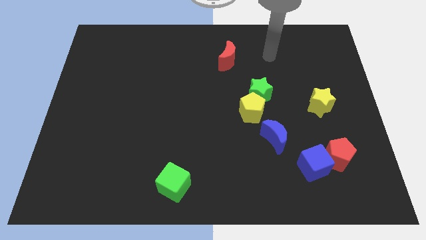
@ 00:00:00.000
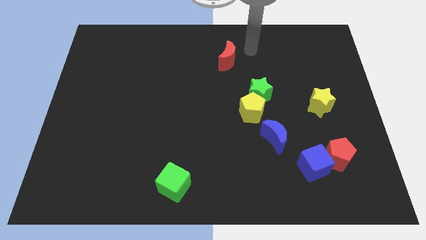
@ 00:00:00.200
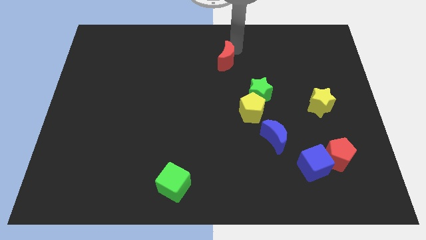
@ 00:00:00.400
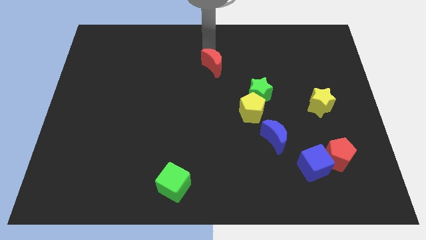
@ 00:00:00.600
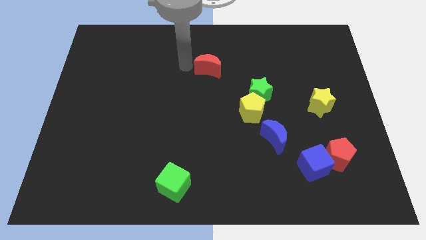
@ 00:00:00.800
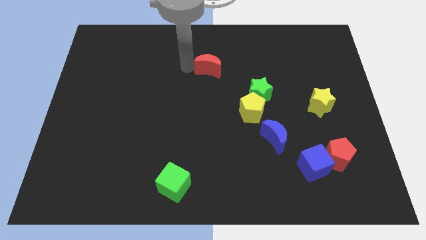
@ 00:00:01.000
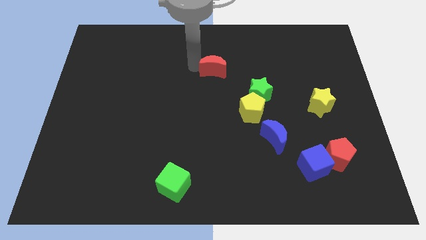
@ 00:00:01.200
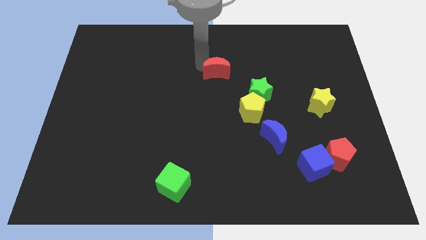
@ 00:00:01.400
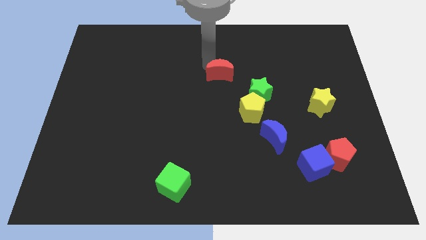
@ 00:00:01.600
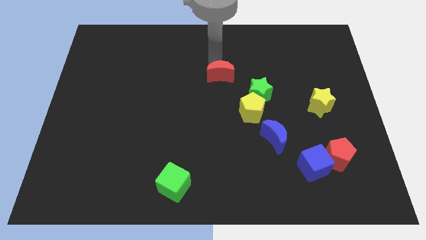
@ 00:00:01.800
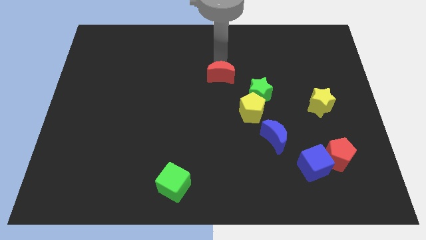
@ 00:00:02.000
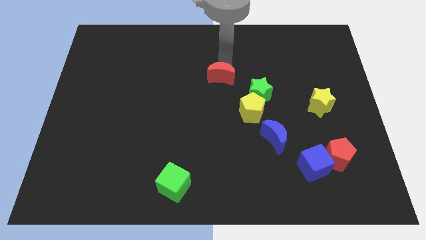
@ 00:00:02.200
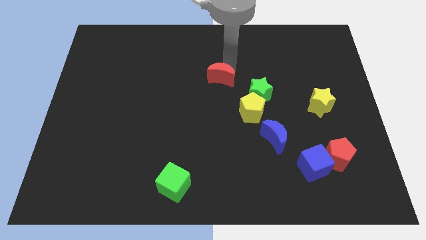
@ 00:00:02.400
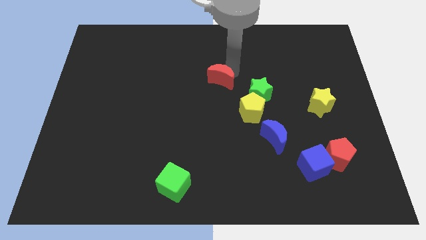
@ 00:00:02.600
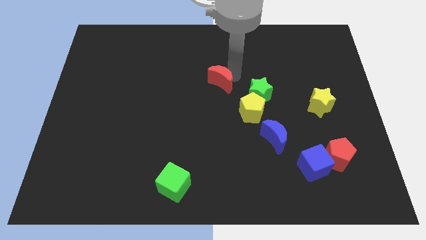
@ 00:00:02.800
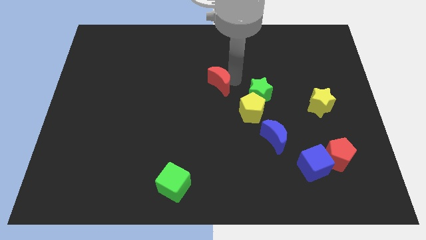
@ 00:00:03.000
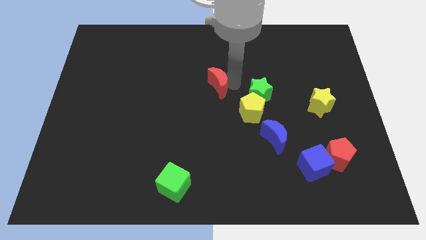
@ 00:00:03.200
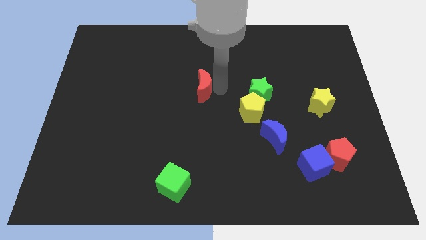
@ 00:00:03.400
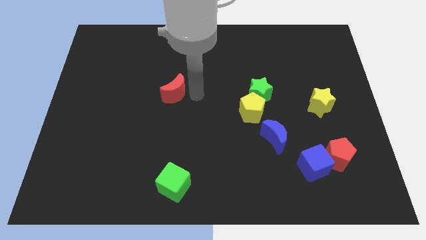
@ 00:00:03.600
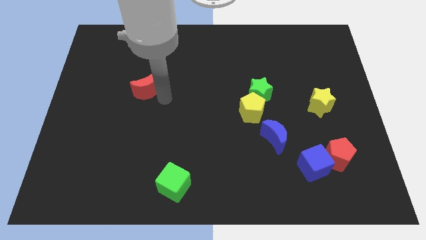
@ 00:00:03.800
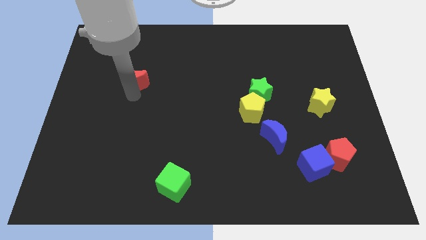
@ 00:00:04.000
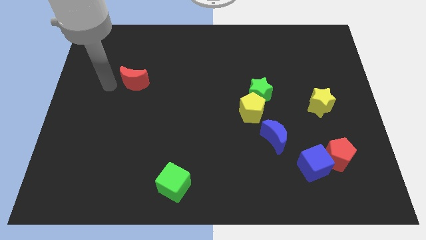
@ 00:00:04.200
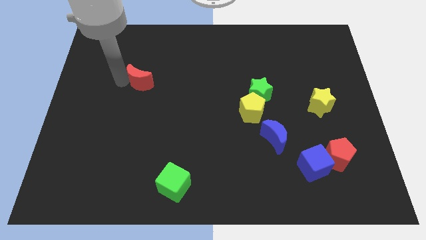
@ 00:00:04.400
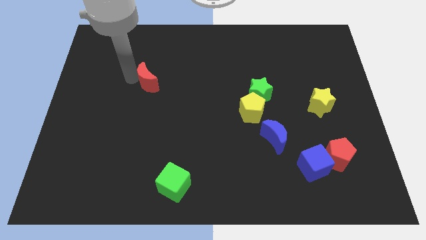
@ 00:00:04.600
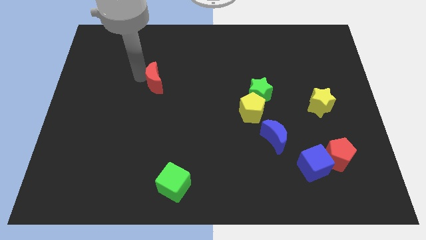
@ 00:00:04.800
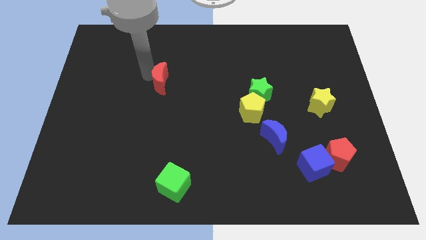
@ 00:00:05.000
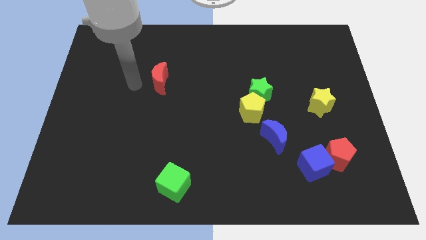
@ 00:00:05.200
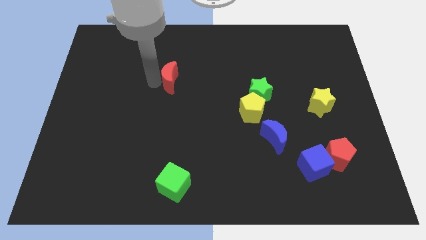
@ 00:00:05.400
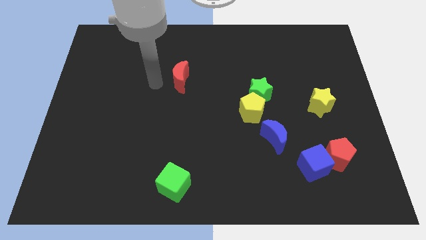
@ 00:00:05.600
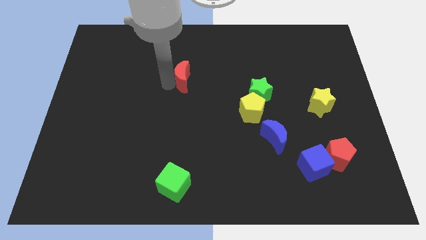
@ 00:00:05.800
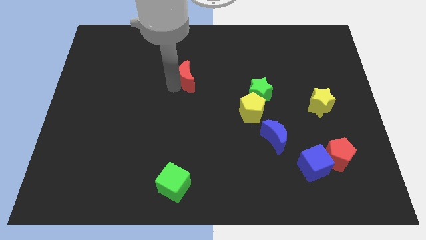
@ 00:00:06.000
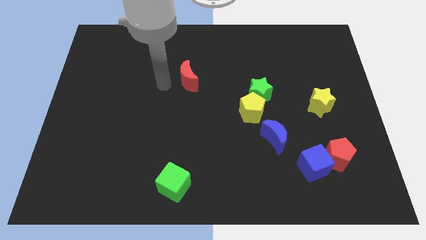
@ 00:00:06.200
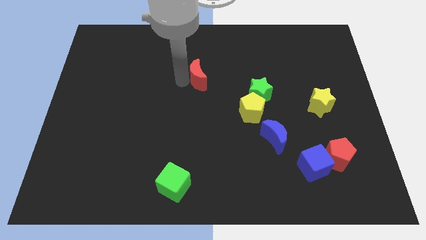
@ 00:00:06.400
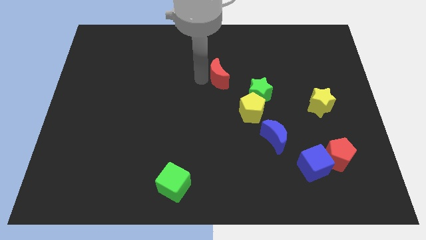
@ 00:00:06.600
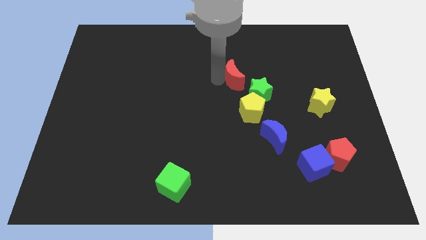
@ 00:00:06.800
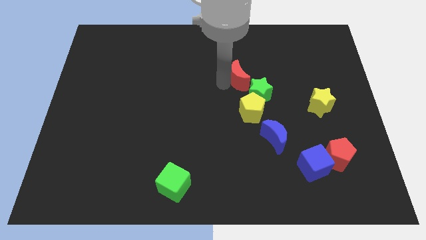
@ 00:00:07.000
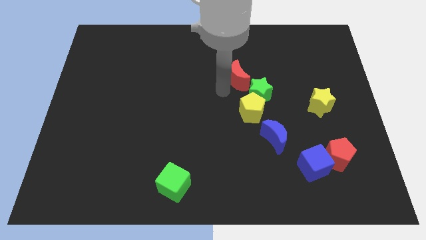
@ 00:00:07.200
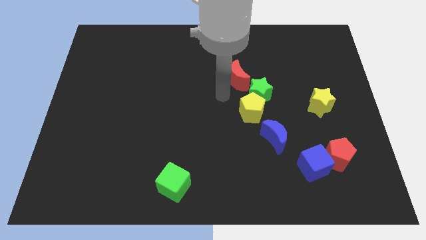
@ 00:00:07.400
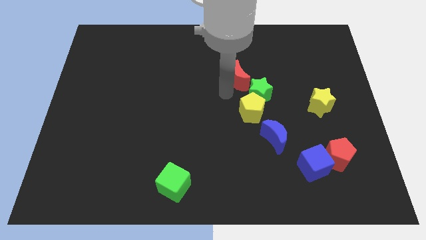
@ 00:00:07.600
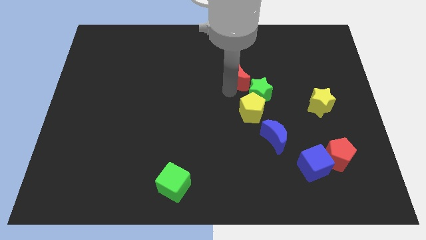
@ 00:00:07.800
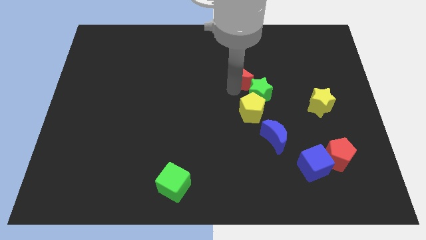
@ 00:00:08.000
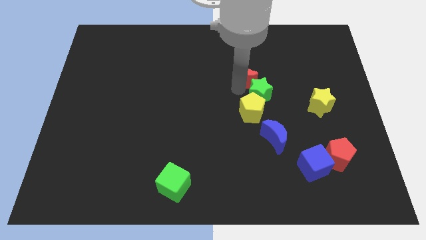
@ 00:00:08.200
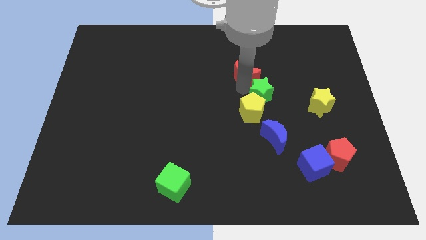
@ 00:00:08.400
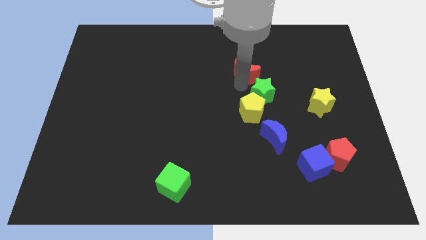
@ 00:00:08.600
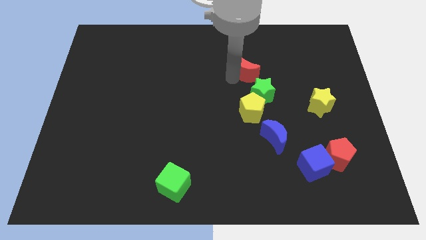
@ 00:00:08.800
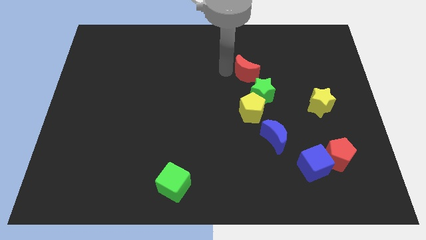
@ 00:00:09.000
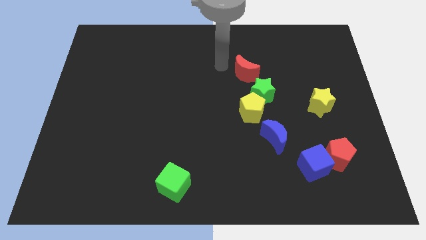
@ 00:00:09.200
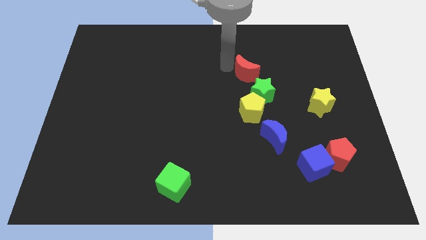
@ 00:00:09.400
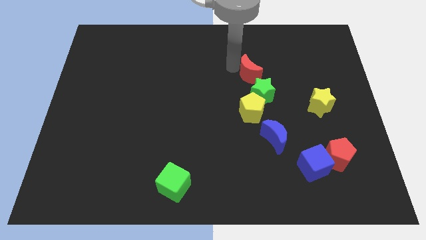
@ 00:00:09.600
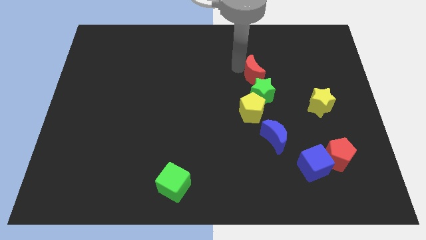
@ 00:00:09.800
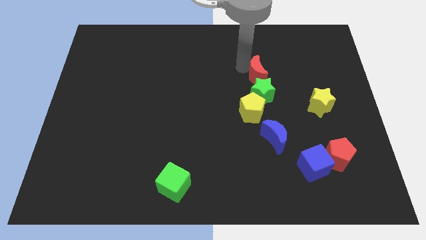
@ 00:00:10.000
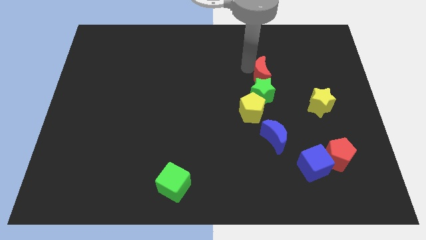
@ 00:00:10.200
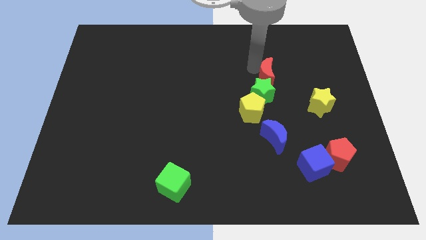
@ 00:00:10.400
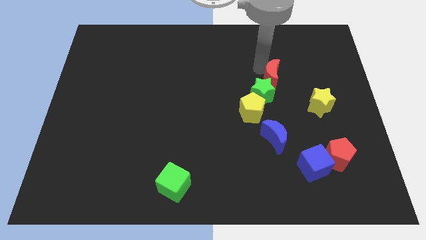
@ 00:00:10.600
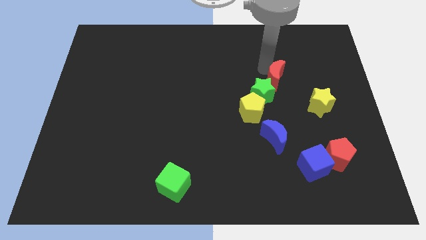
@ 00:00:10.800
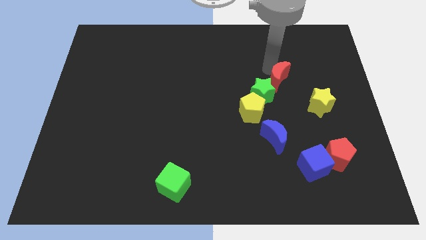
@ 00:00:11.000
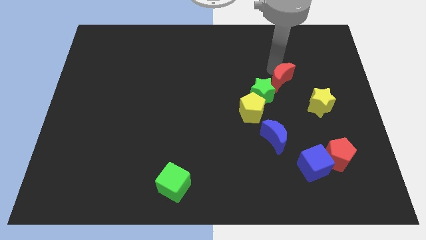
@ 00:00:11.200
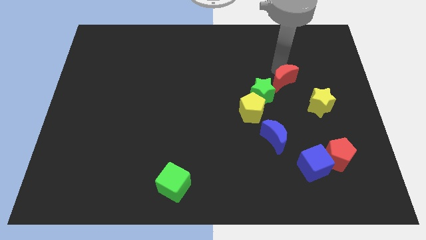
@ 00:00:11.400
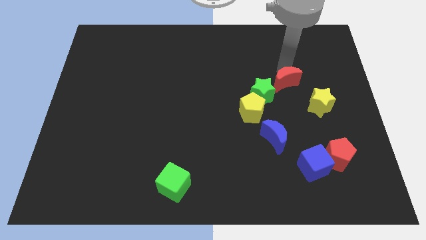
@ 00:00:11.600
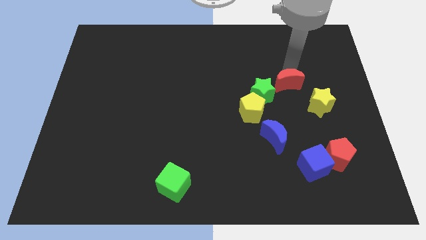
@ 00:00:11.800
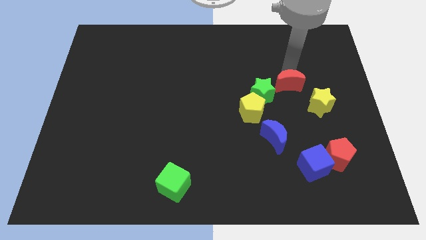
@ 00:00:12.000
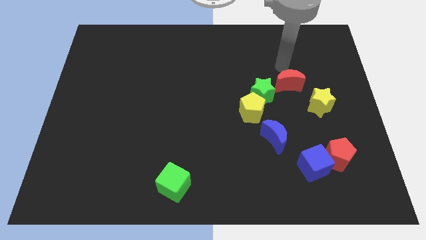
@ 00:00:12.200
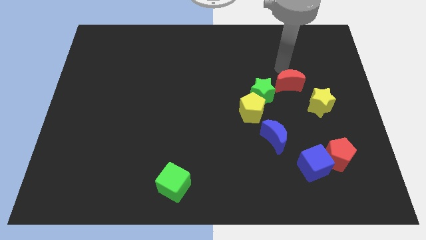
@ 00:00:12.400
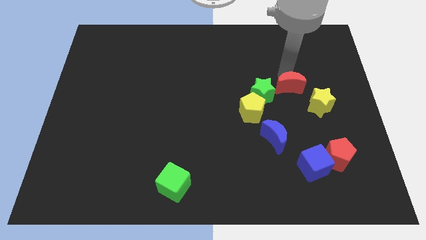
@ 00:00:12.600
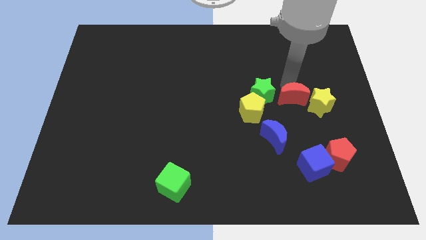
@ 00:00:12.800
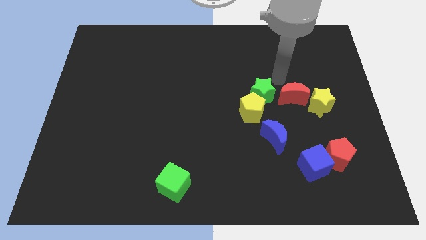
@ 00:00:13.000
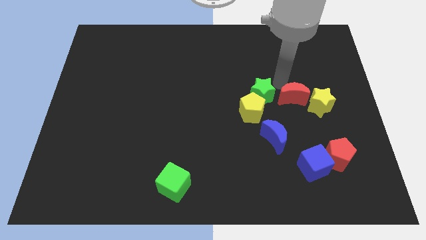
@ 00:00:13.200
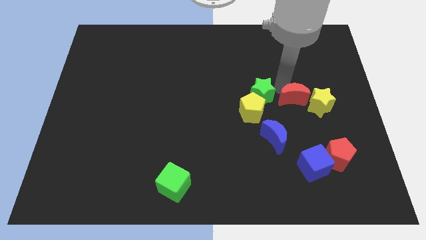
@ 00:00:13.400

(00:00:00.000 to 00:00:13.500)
push the red moon downwards and right

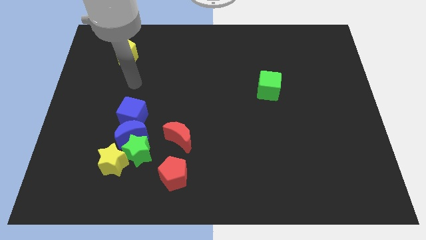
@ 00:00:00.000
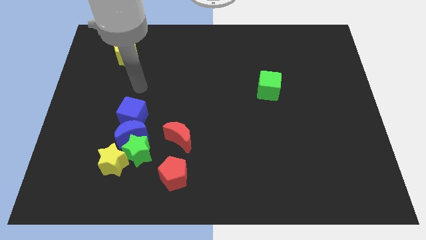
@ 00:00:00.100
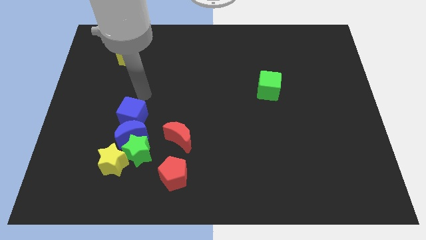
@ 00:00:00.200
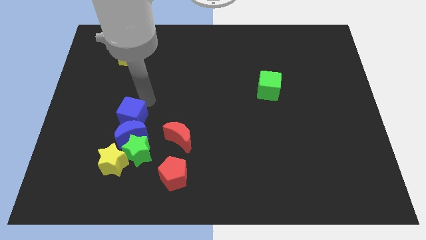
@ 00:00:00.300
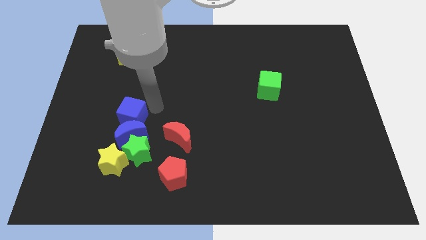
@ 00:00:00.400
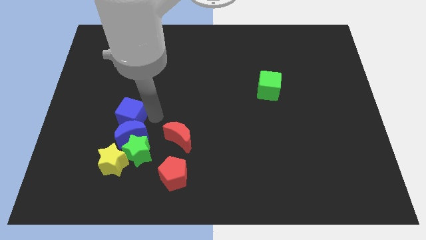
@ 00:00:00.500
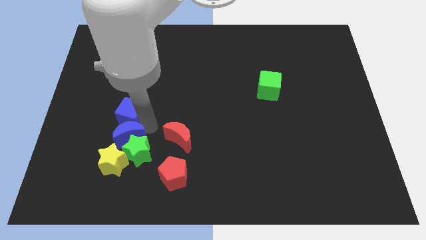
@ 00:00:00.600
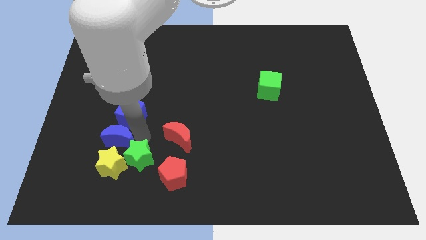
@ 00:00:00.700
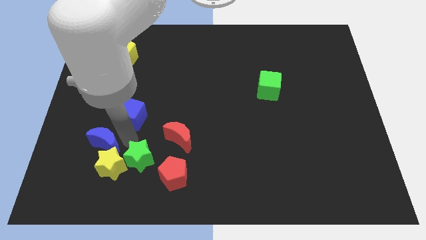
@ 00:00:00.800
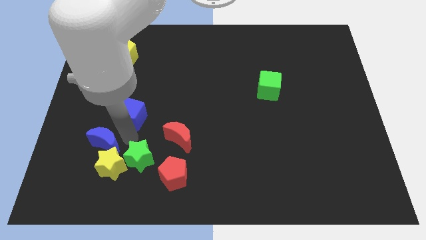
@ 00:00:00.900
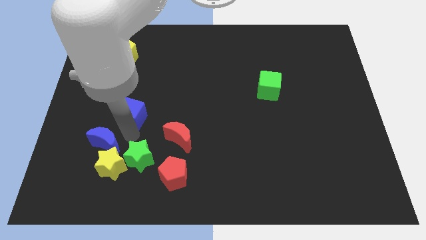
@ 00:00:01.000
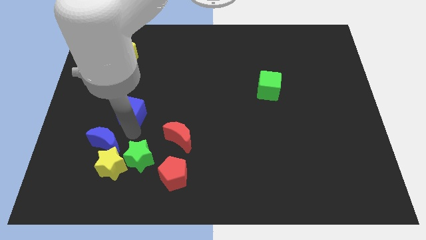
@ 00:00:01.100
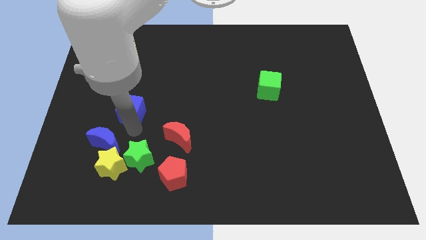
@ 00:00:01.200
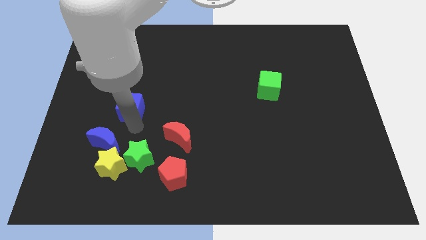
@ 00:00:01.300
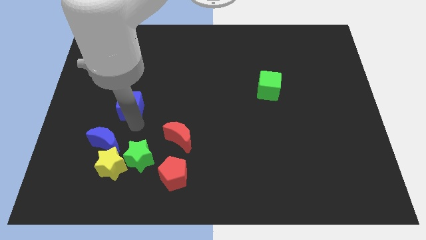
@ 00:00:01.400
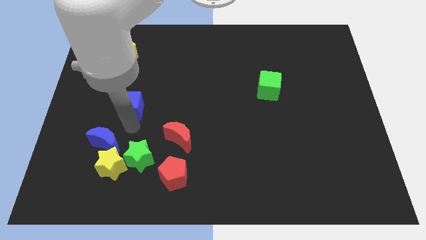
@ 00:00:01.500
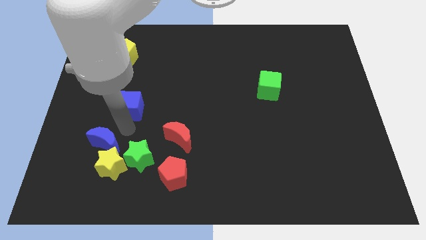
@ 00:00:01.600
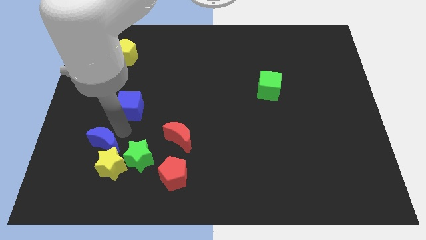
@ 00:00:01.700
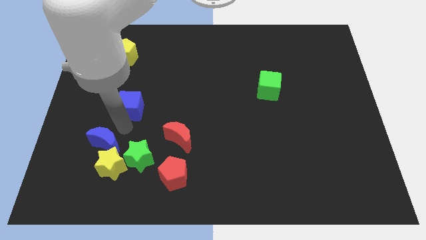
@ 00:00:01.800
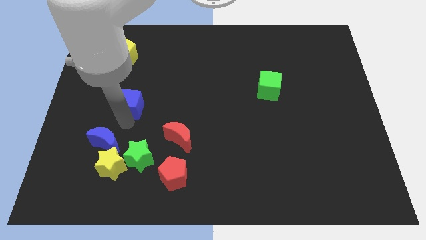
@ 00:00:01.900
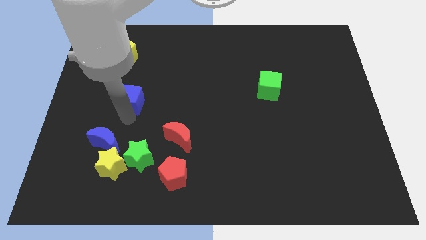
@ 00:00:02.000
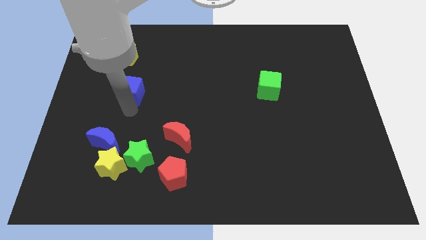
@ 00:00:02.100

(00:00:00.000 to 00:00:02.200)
slightly push the blue cube up
